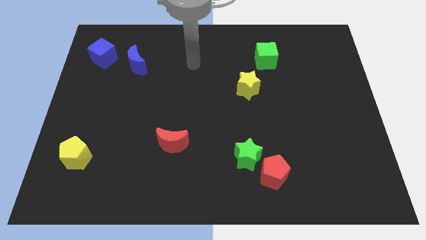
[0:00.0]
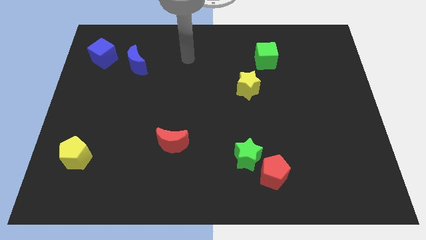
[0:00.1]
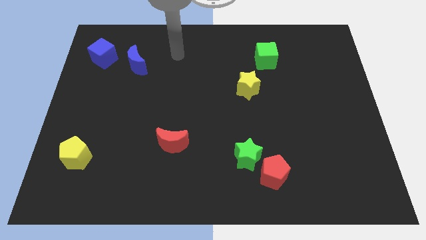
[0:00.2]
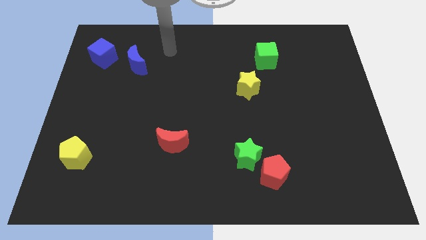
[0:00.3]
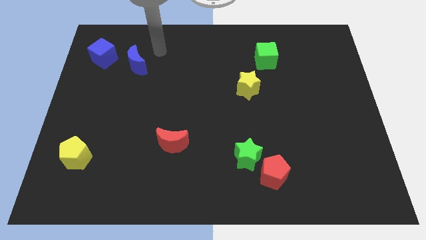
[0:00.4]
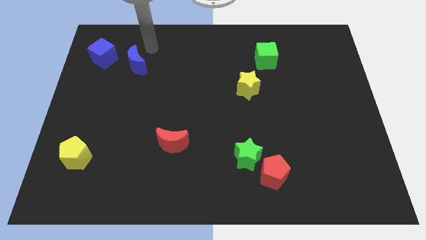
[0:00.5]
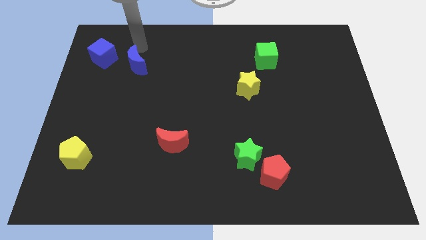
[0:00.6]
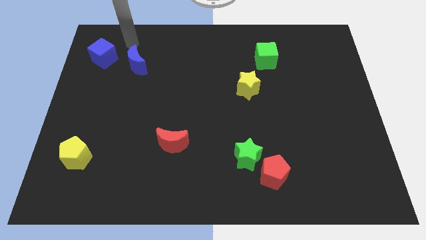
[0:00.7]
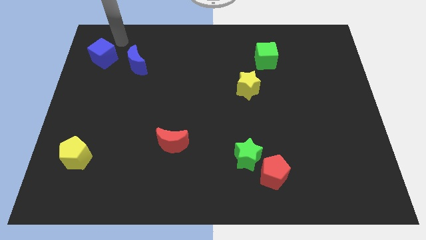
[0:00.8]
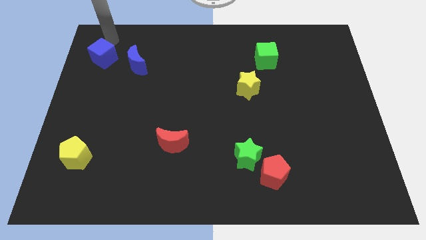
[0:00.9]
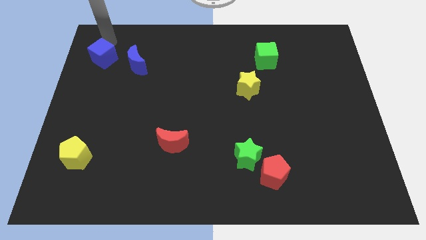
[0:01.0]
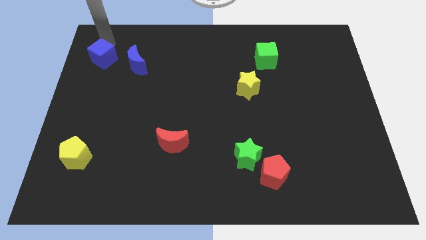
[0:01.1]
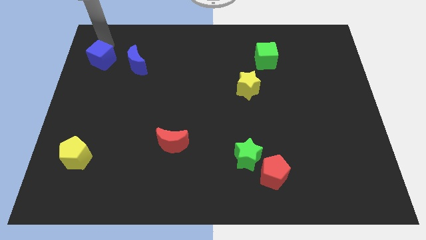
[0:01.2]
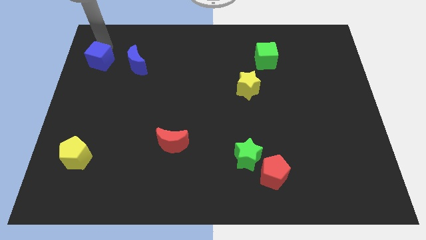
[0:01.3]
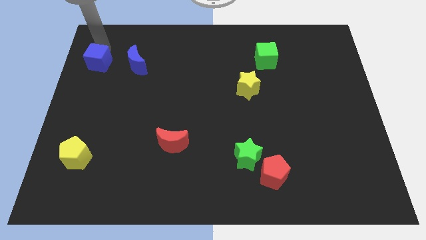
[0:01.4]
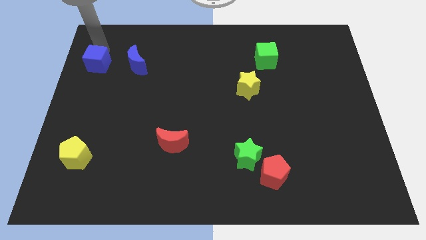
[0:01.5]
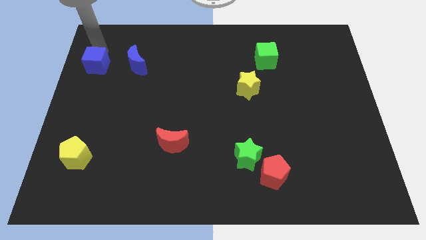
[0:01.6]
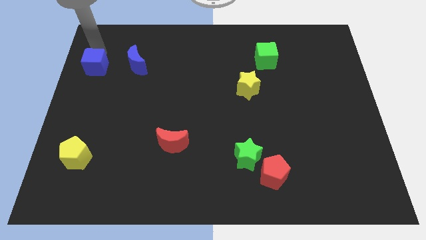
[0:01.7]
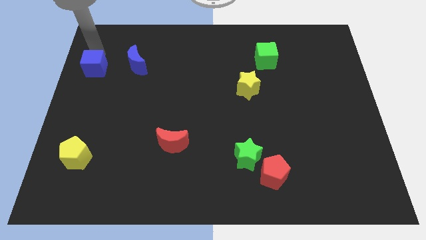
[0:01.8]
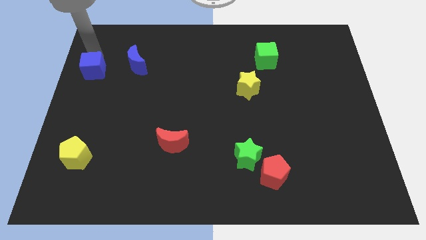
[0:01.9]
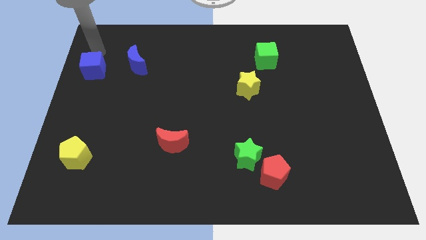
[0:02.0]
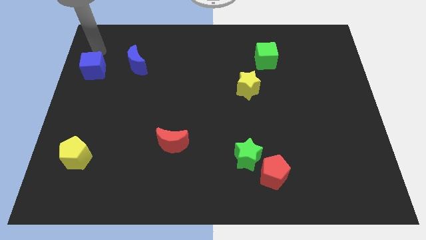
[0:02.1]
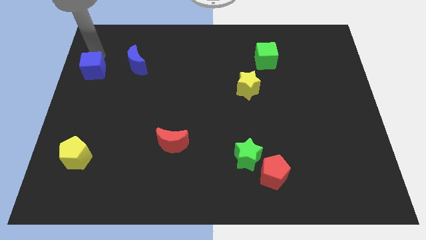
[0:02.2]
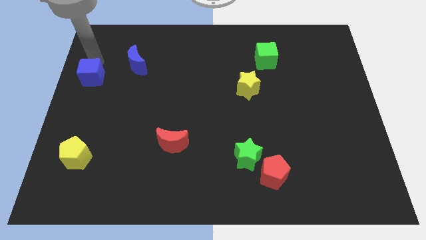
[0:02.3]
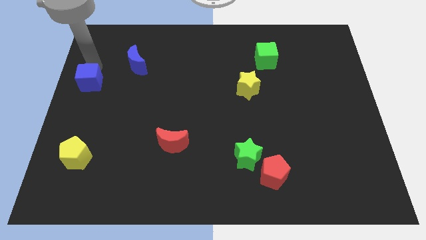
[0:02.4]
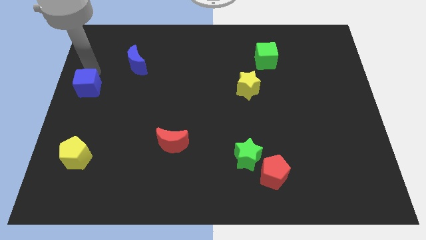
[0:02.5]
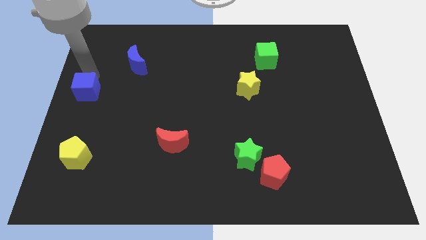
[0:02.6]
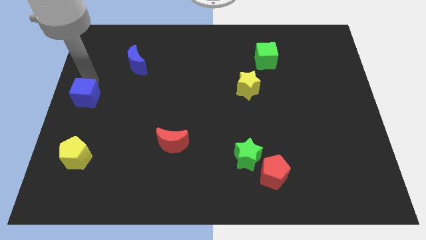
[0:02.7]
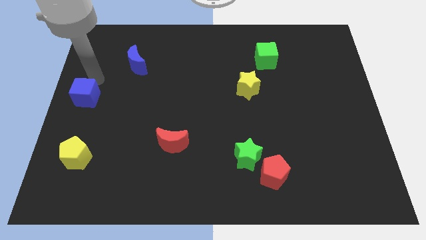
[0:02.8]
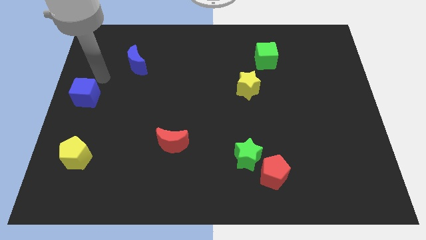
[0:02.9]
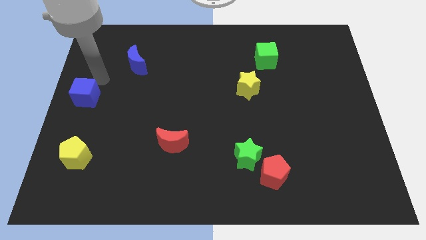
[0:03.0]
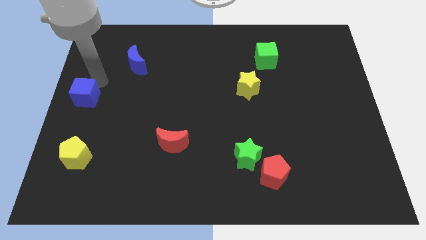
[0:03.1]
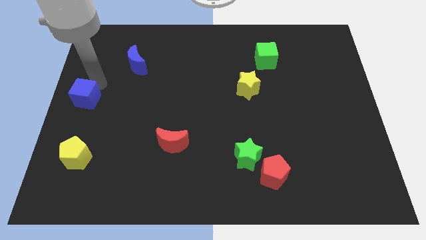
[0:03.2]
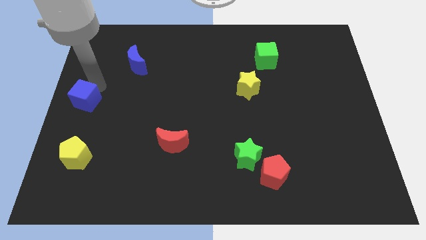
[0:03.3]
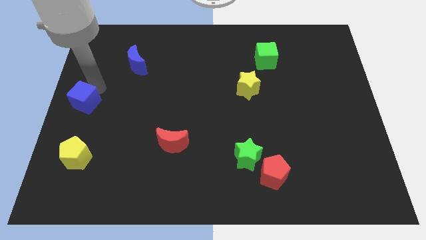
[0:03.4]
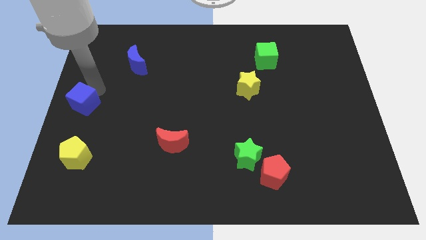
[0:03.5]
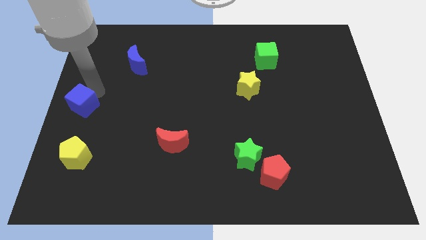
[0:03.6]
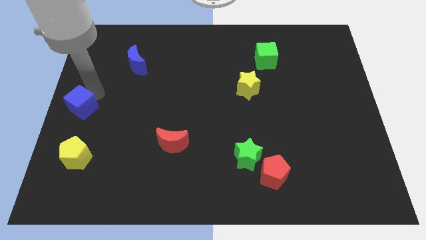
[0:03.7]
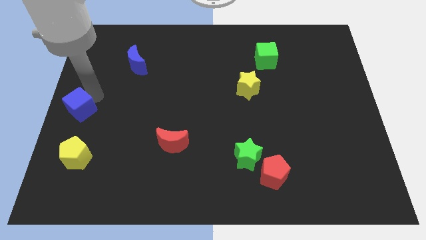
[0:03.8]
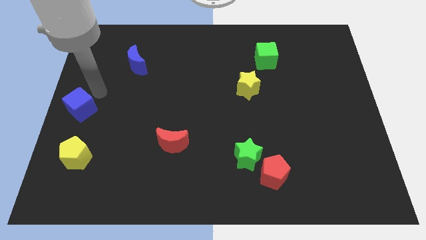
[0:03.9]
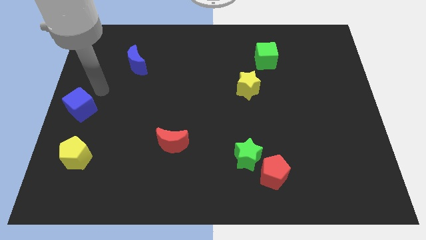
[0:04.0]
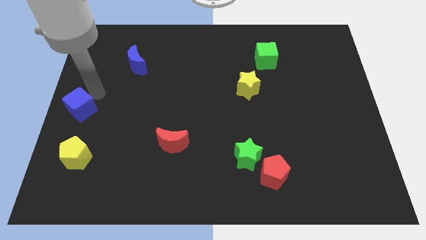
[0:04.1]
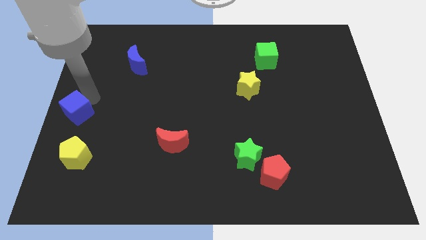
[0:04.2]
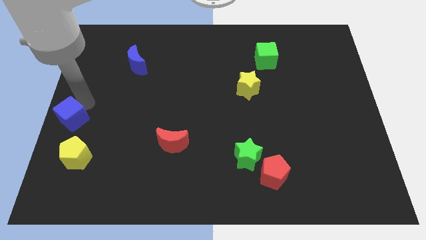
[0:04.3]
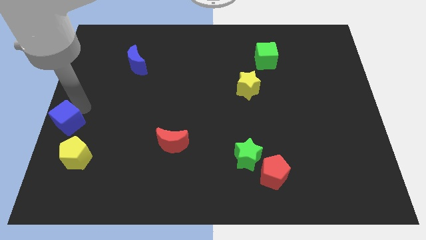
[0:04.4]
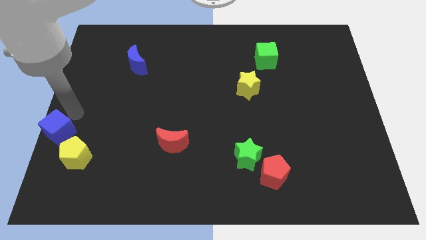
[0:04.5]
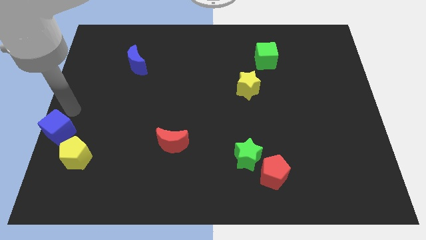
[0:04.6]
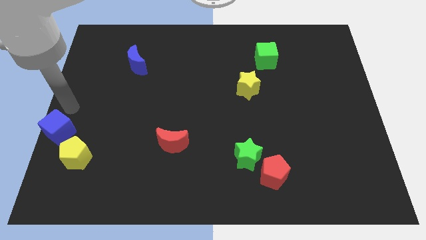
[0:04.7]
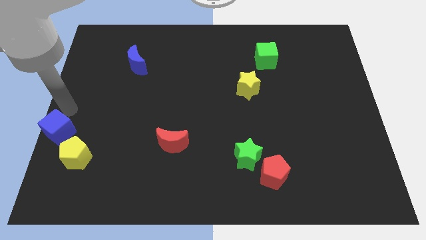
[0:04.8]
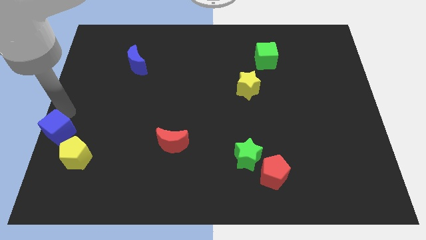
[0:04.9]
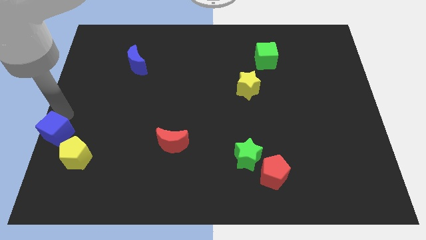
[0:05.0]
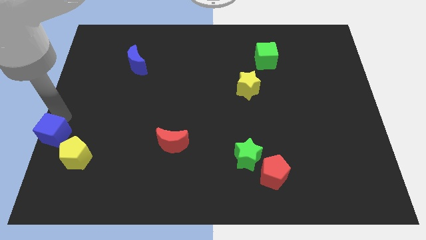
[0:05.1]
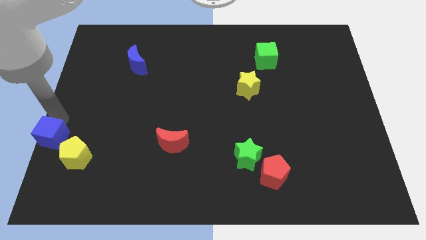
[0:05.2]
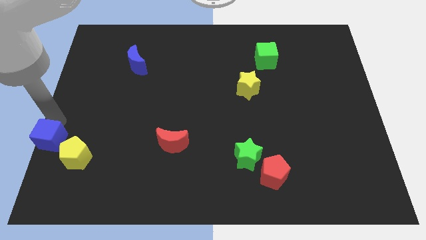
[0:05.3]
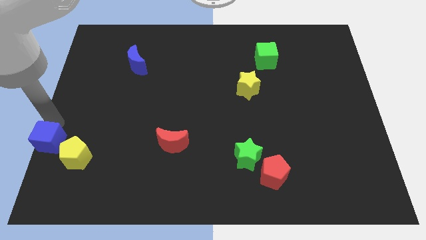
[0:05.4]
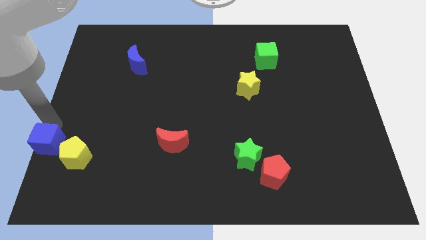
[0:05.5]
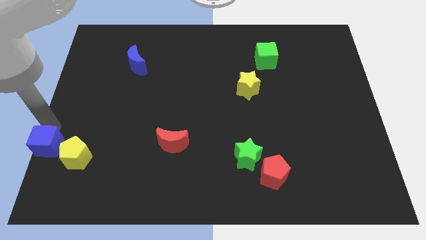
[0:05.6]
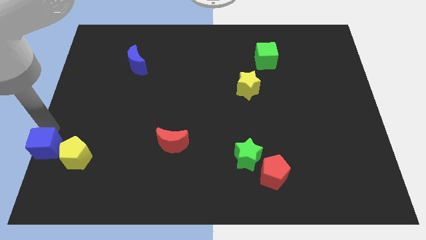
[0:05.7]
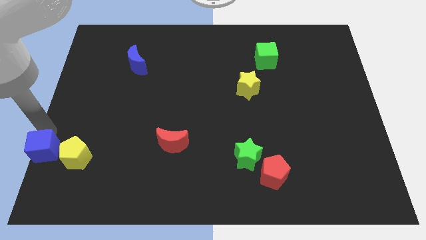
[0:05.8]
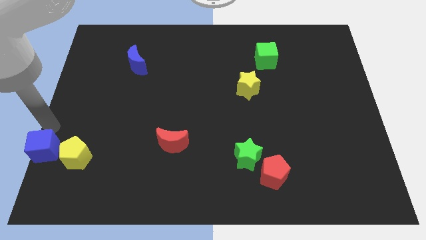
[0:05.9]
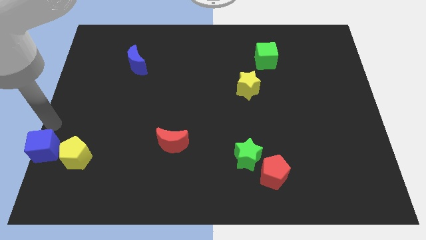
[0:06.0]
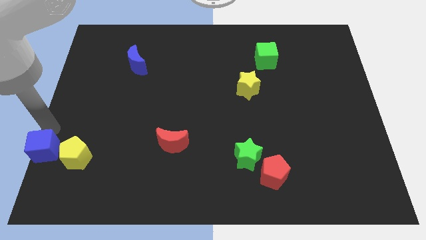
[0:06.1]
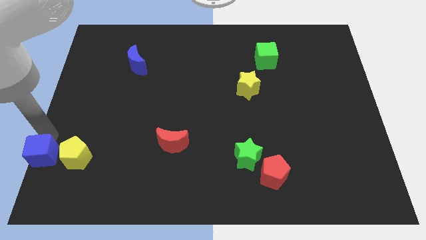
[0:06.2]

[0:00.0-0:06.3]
push the blue cube to the bottom left
